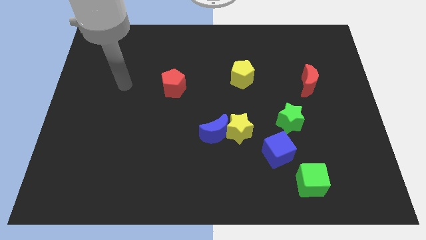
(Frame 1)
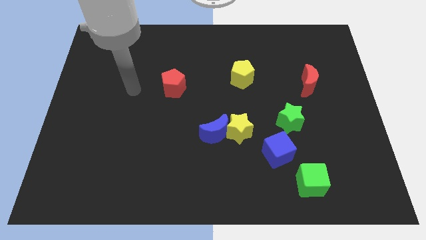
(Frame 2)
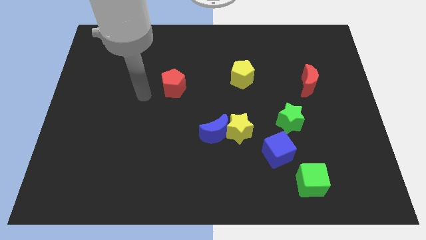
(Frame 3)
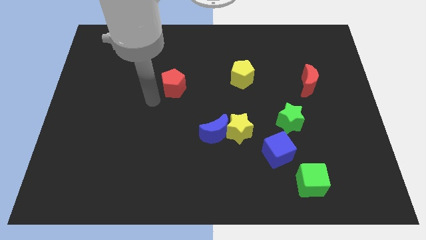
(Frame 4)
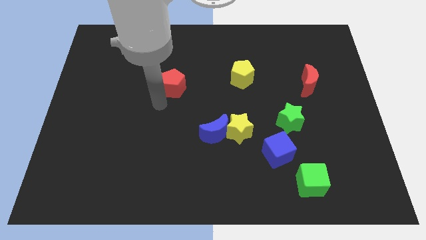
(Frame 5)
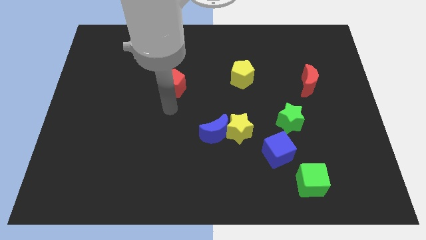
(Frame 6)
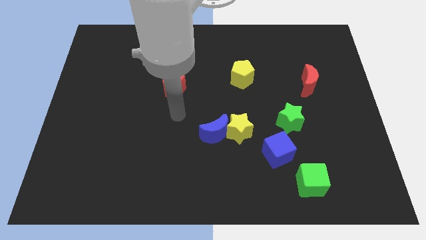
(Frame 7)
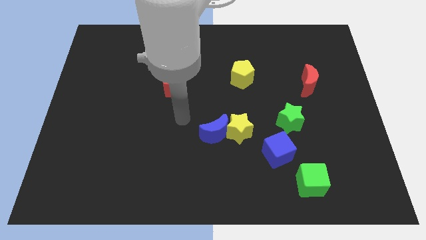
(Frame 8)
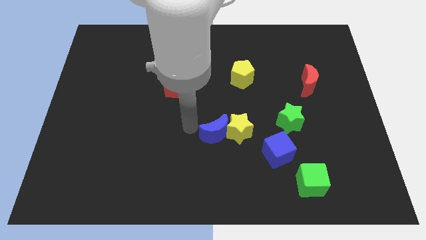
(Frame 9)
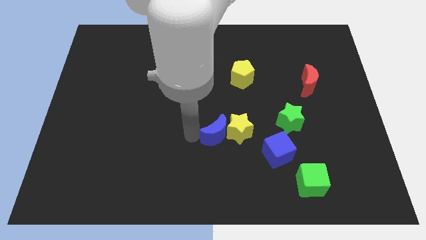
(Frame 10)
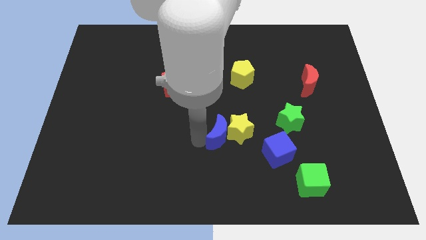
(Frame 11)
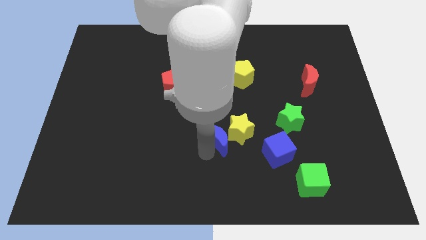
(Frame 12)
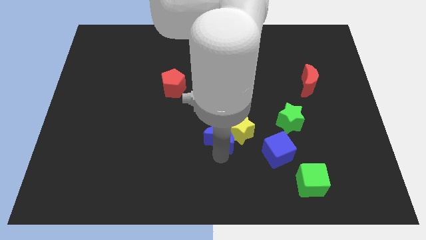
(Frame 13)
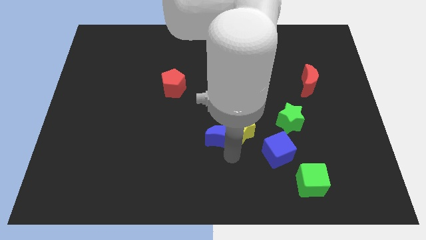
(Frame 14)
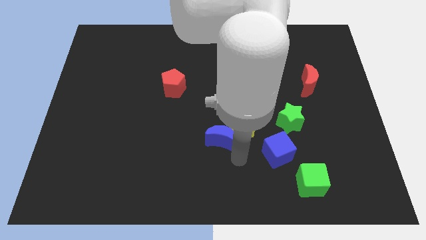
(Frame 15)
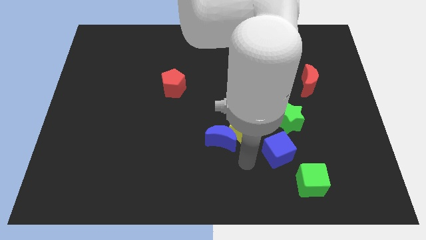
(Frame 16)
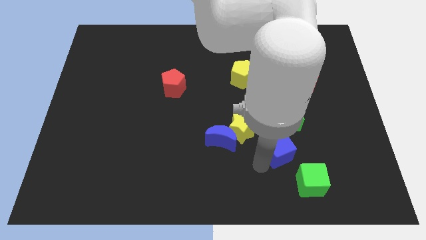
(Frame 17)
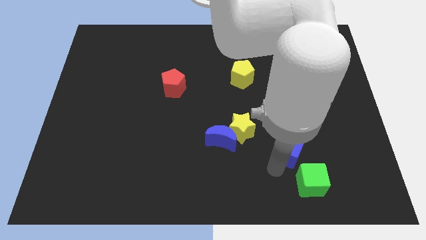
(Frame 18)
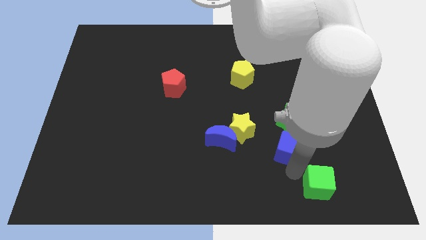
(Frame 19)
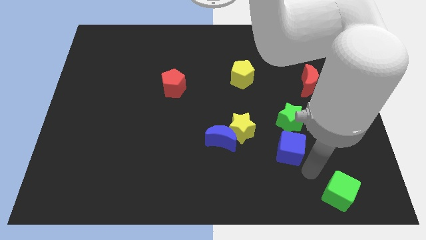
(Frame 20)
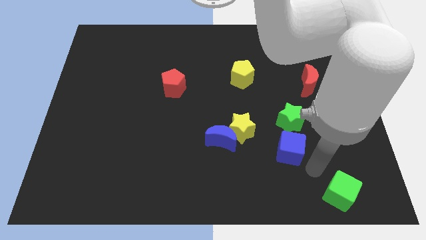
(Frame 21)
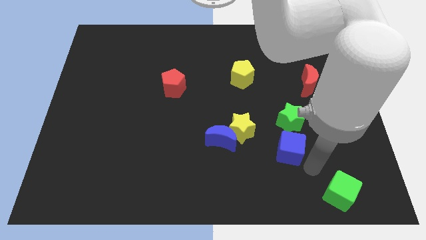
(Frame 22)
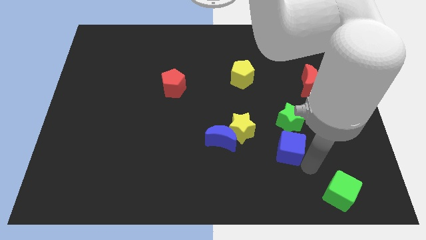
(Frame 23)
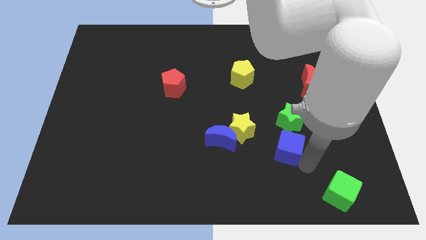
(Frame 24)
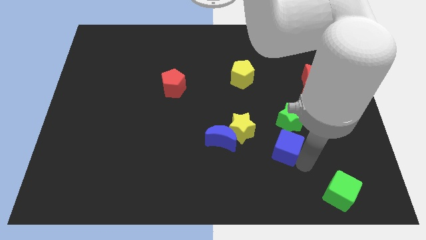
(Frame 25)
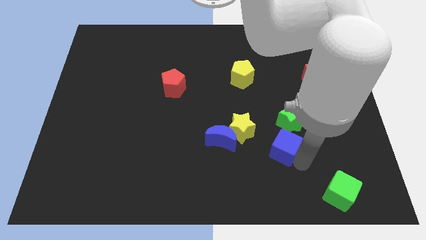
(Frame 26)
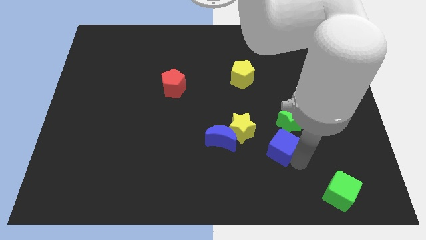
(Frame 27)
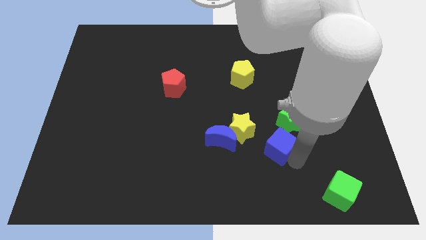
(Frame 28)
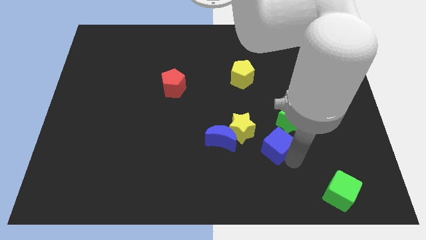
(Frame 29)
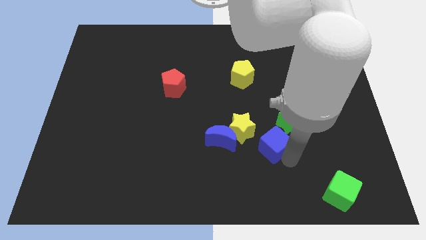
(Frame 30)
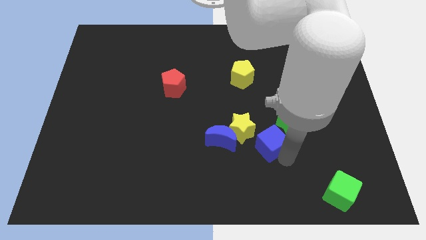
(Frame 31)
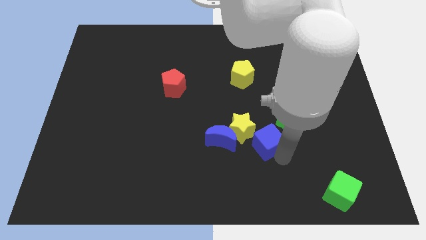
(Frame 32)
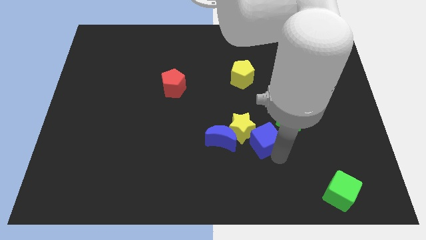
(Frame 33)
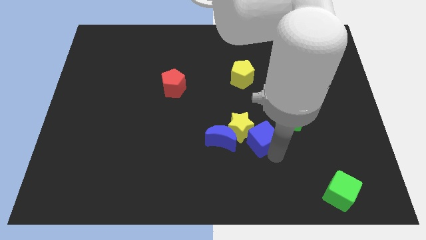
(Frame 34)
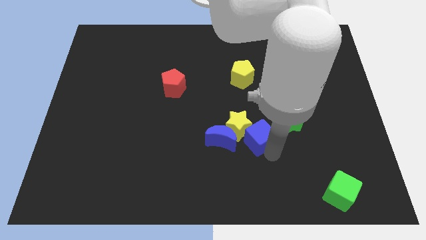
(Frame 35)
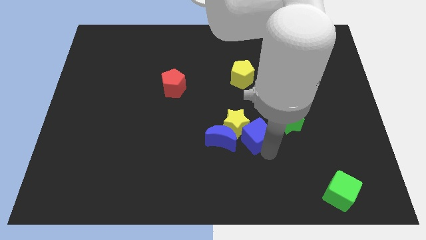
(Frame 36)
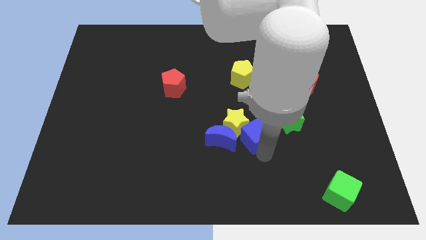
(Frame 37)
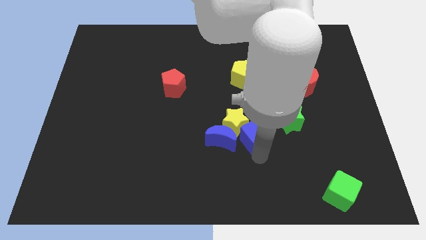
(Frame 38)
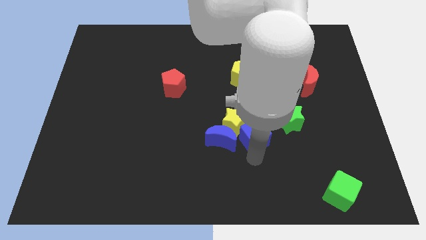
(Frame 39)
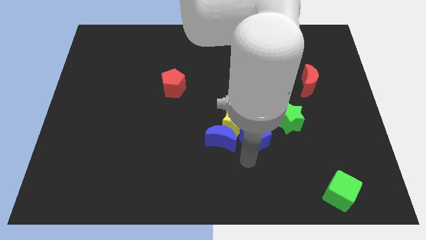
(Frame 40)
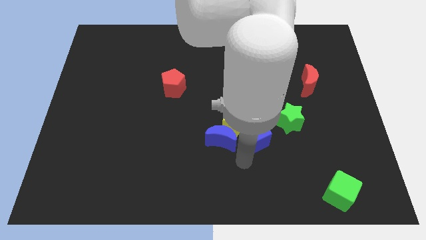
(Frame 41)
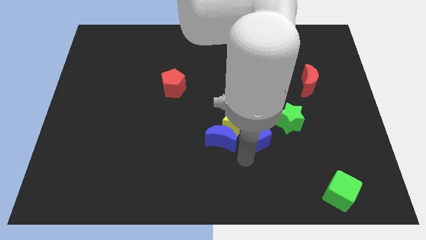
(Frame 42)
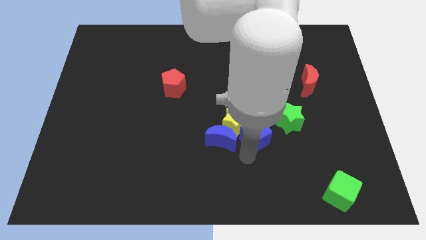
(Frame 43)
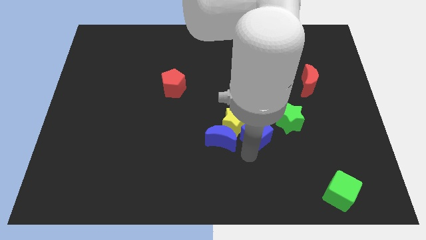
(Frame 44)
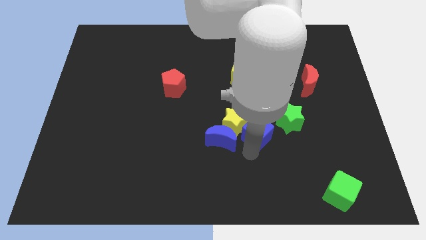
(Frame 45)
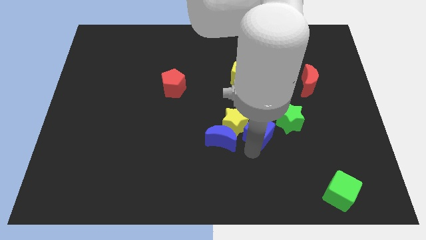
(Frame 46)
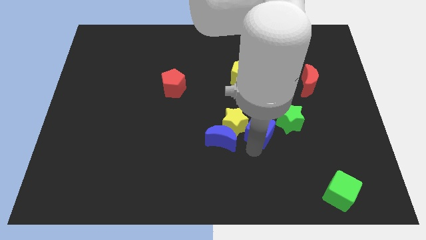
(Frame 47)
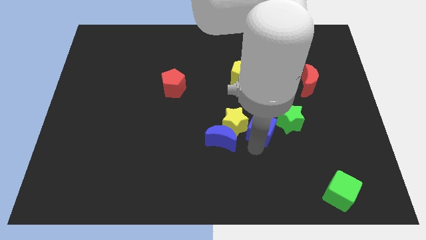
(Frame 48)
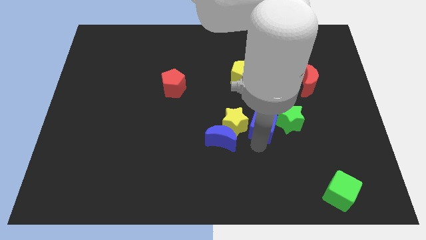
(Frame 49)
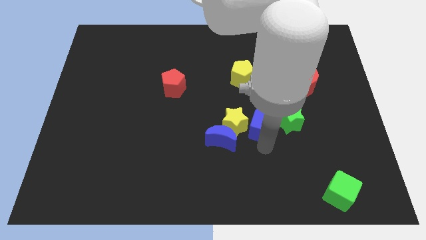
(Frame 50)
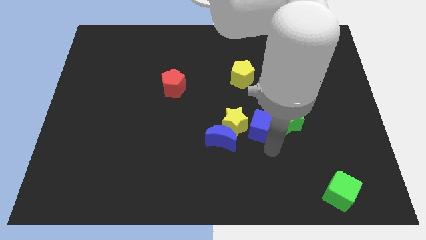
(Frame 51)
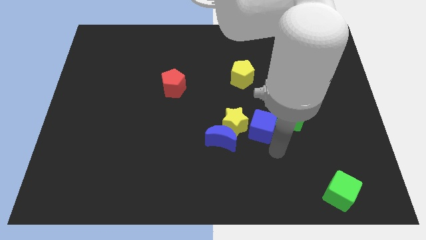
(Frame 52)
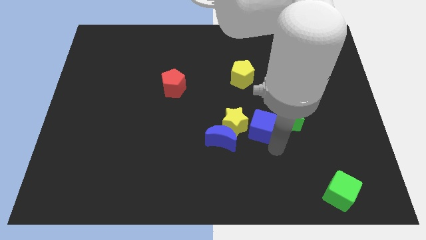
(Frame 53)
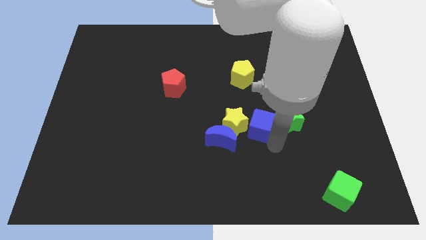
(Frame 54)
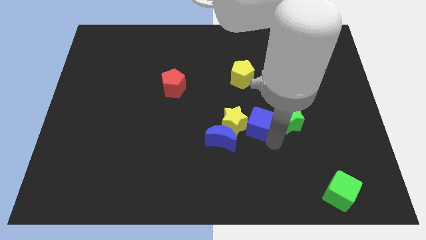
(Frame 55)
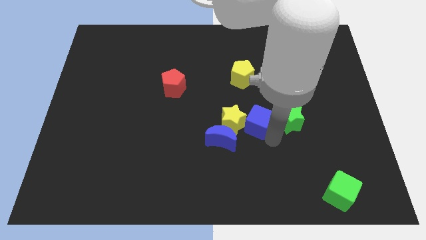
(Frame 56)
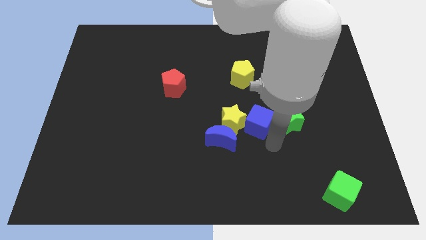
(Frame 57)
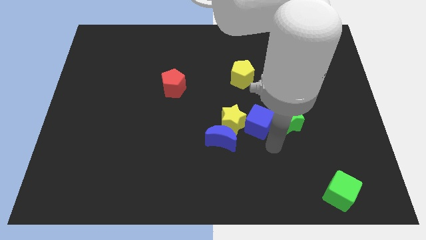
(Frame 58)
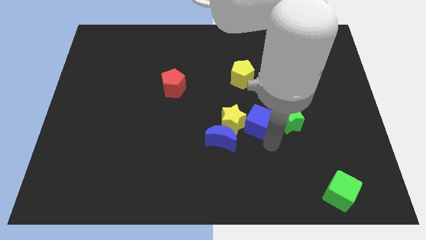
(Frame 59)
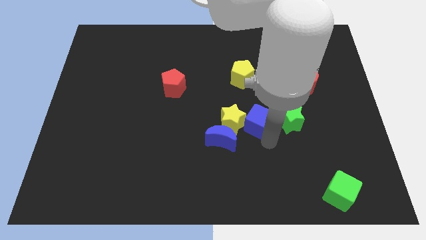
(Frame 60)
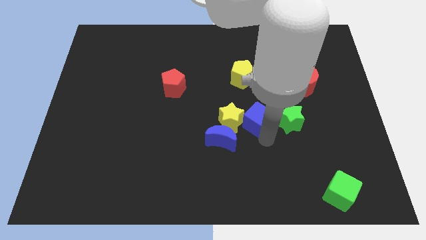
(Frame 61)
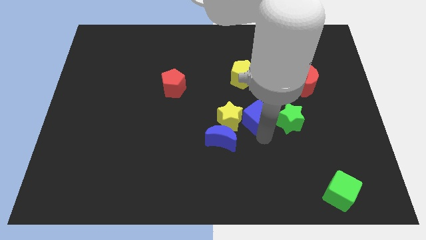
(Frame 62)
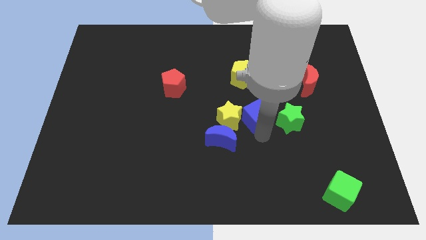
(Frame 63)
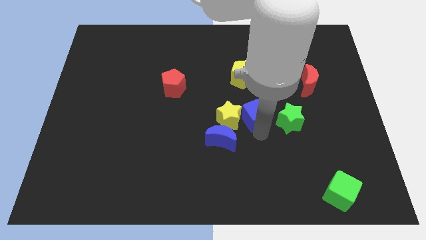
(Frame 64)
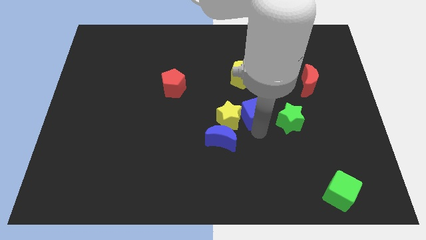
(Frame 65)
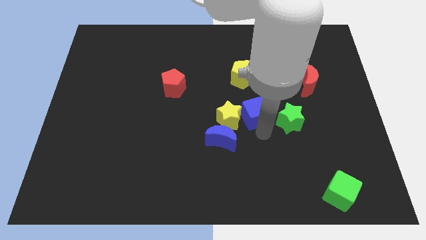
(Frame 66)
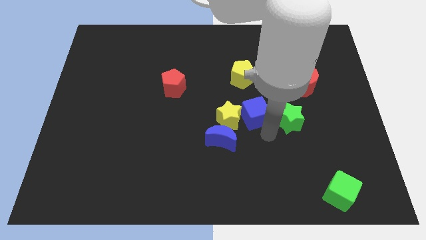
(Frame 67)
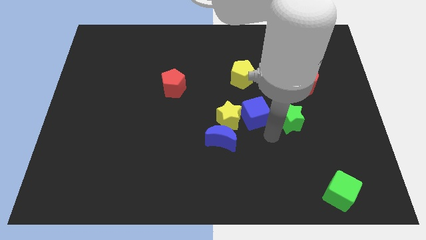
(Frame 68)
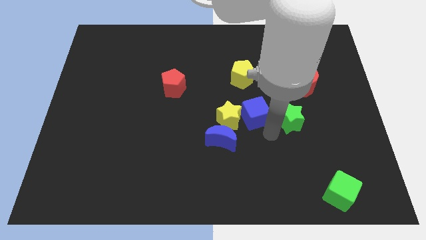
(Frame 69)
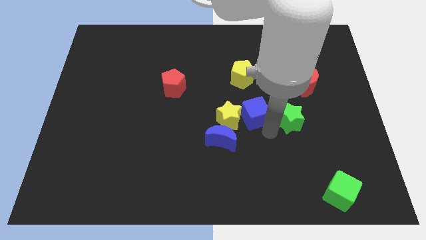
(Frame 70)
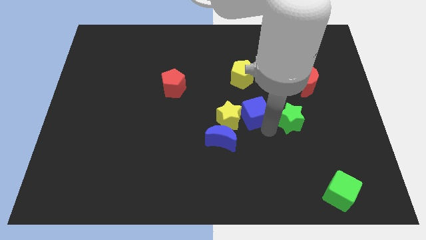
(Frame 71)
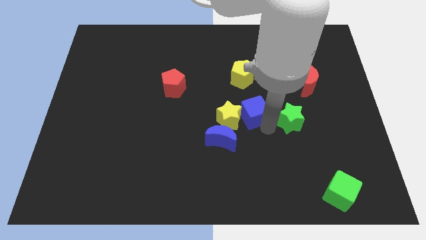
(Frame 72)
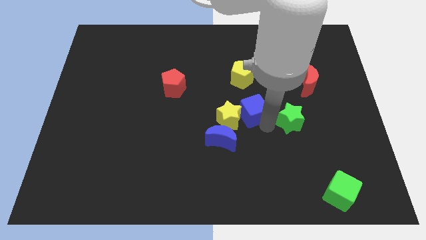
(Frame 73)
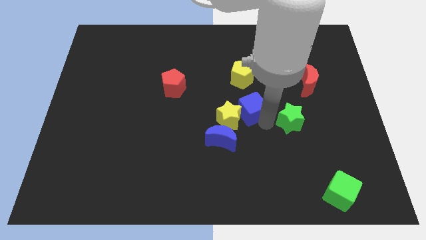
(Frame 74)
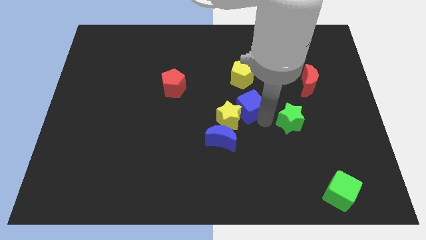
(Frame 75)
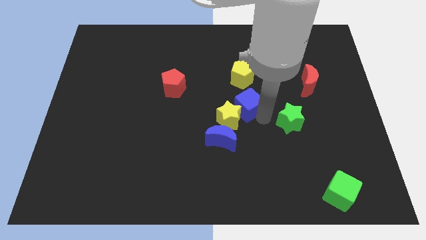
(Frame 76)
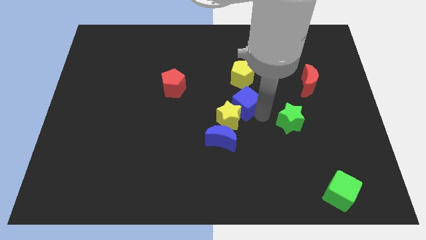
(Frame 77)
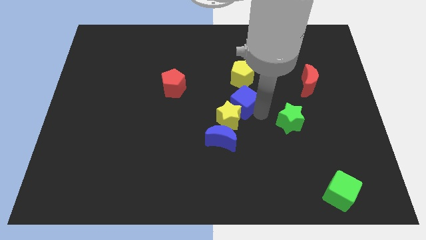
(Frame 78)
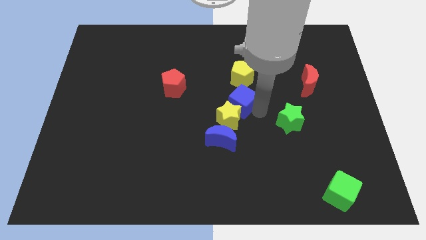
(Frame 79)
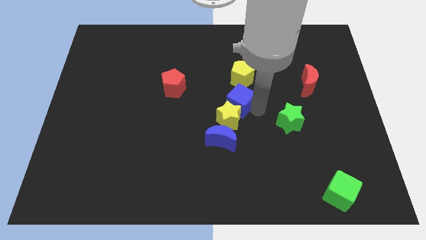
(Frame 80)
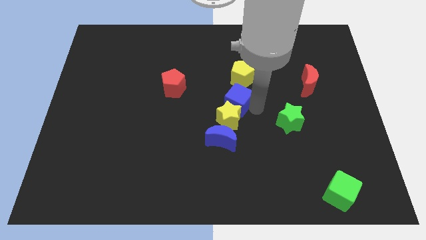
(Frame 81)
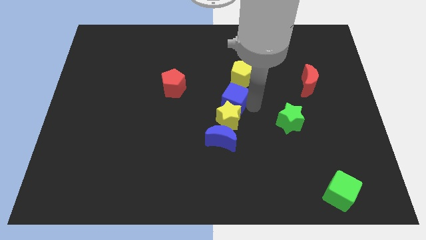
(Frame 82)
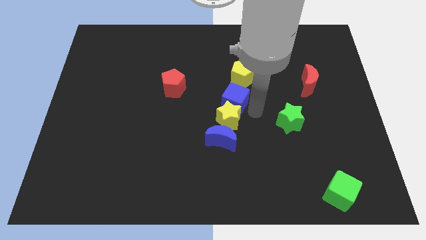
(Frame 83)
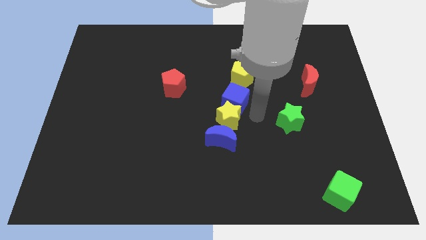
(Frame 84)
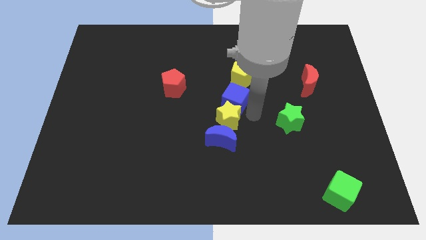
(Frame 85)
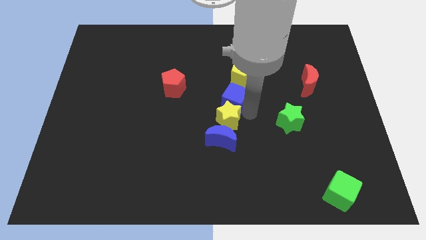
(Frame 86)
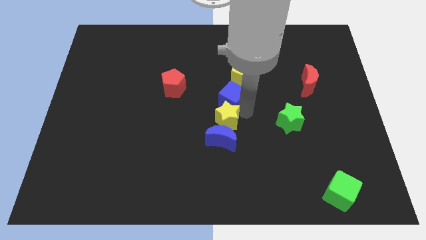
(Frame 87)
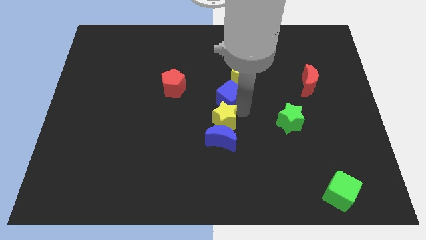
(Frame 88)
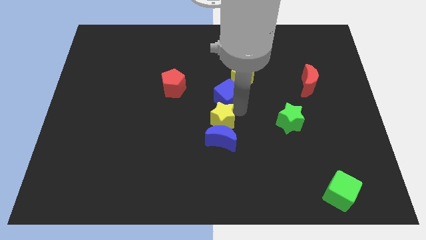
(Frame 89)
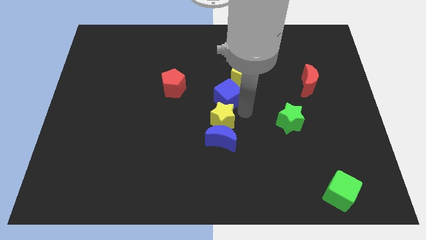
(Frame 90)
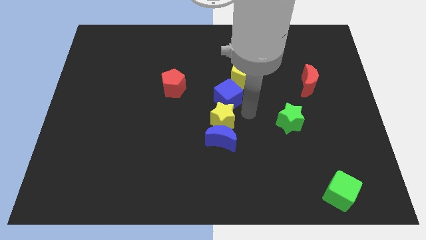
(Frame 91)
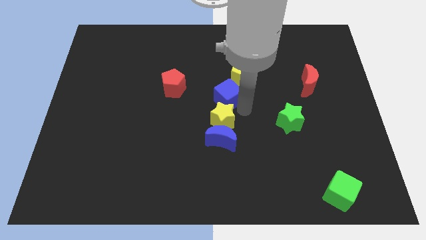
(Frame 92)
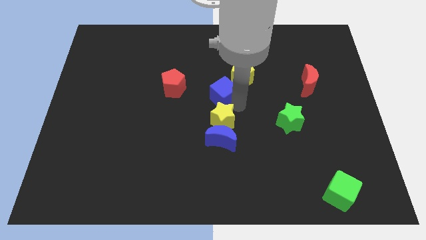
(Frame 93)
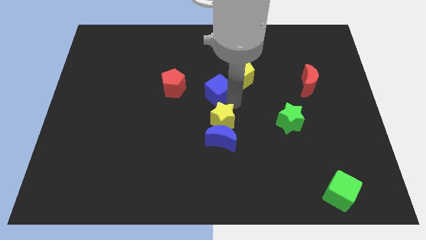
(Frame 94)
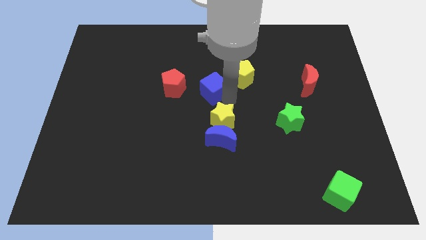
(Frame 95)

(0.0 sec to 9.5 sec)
put the blue cube to the left side of the yellow pentagon
